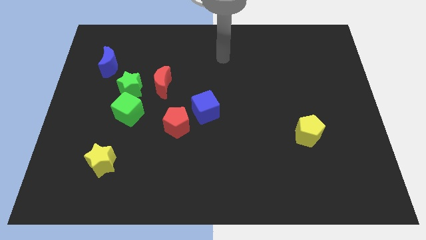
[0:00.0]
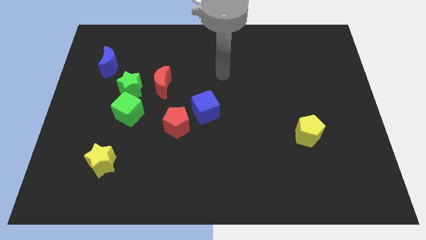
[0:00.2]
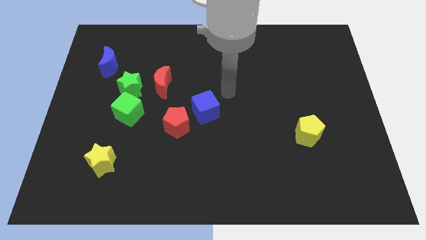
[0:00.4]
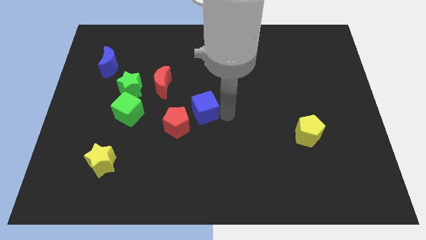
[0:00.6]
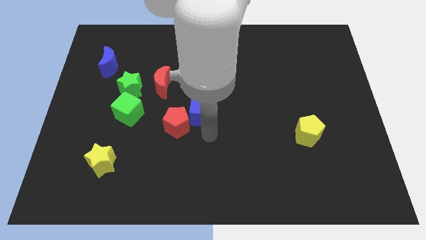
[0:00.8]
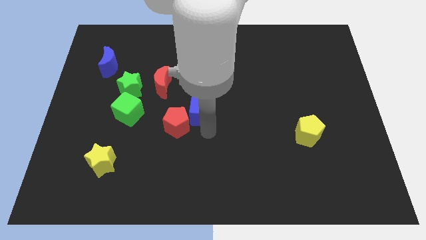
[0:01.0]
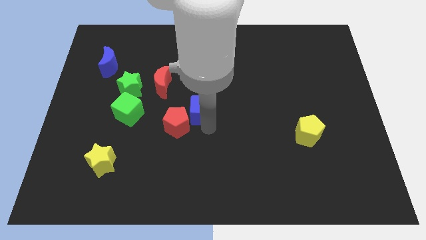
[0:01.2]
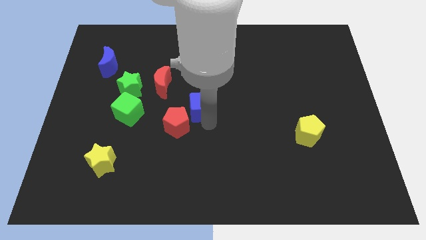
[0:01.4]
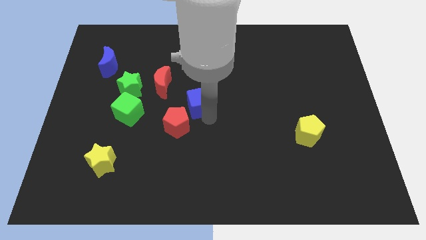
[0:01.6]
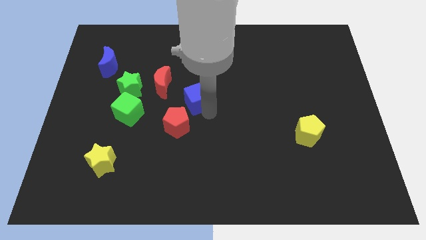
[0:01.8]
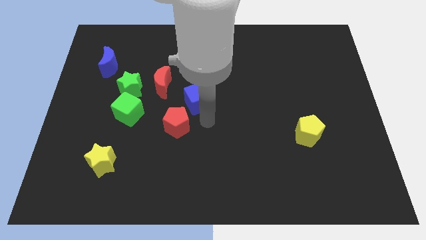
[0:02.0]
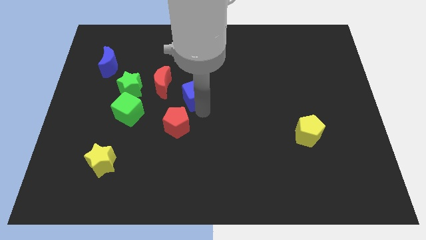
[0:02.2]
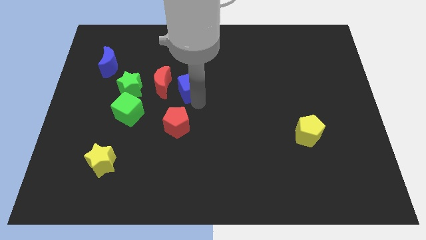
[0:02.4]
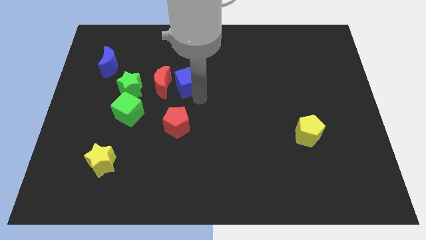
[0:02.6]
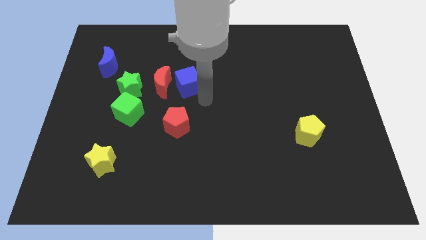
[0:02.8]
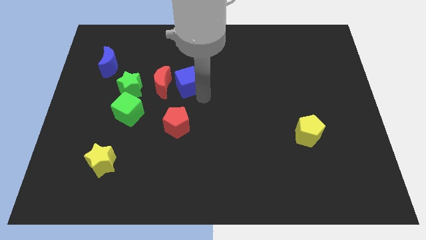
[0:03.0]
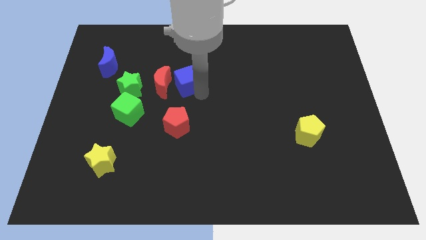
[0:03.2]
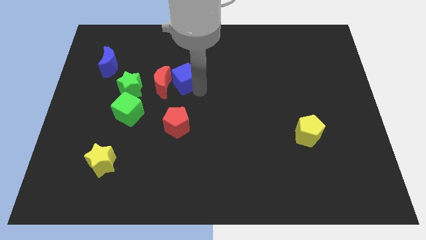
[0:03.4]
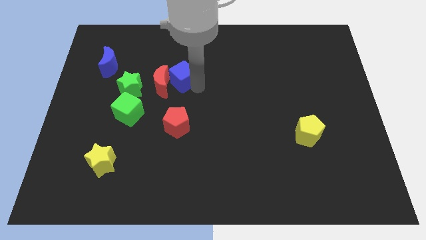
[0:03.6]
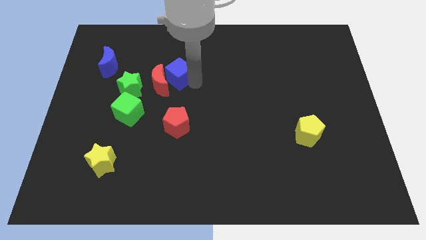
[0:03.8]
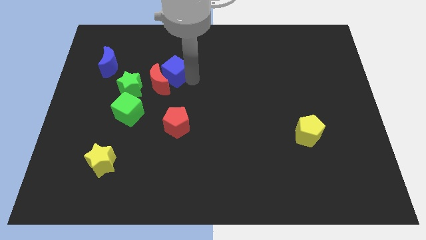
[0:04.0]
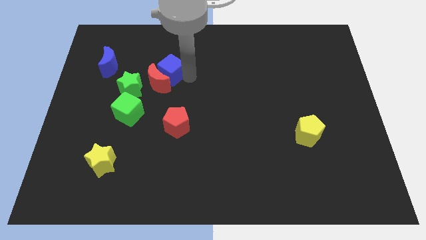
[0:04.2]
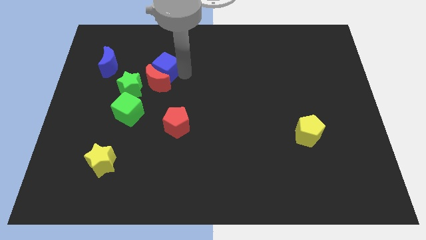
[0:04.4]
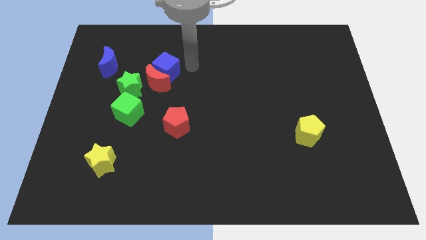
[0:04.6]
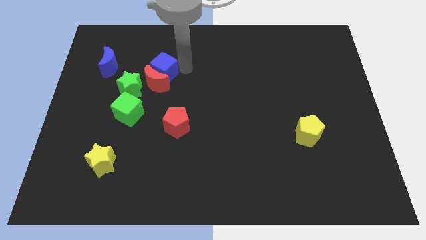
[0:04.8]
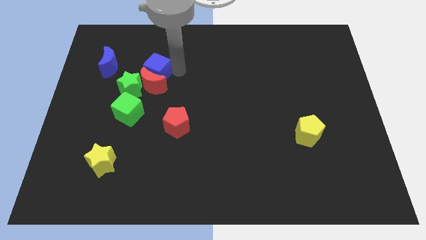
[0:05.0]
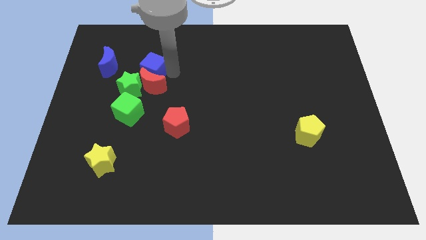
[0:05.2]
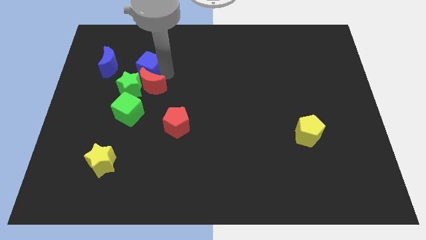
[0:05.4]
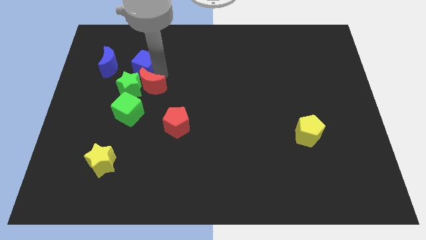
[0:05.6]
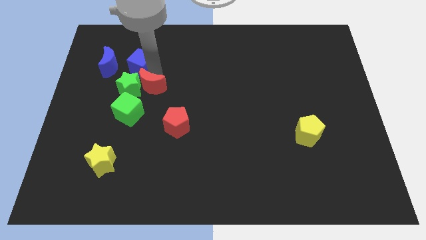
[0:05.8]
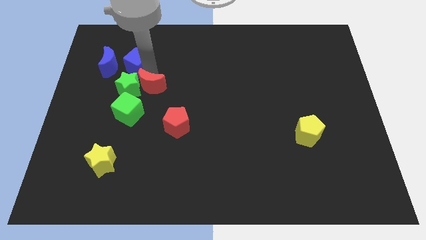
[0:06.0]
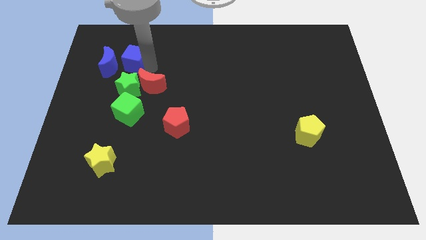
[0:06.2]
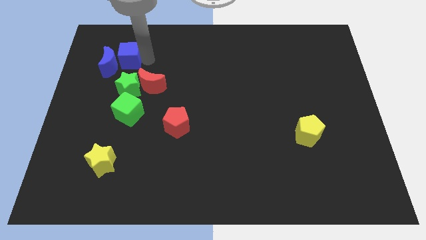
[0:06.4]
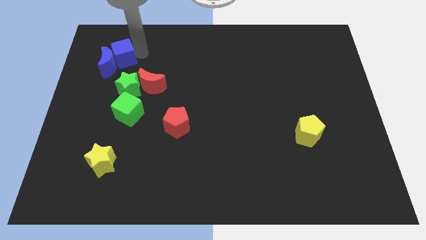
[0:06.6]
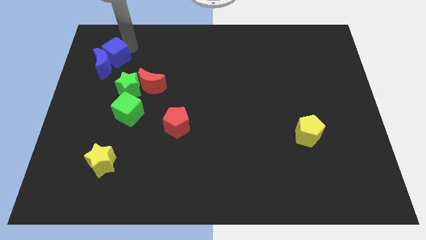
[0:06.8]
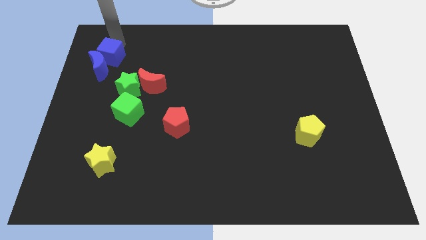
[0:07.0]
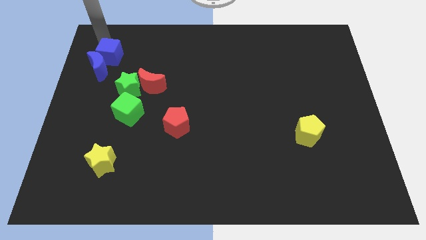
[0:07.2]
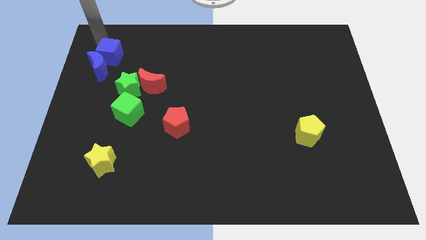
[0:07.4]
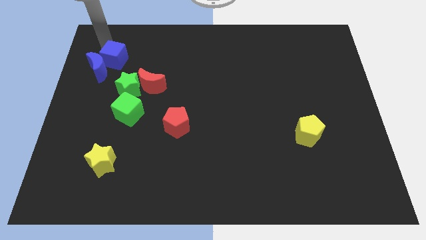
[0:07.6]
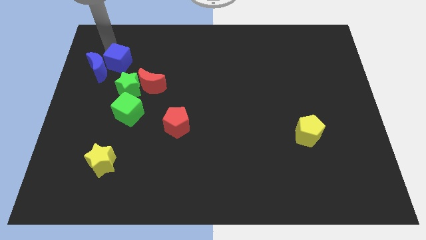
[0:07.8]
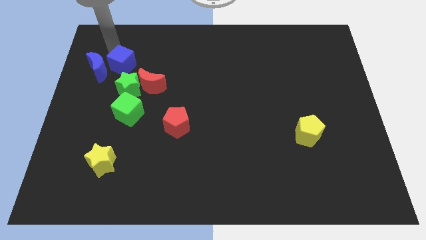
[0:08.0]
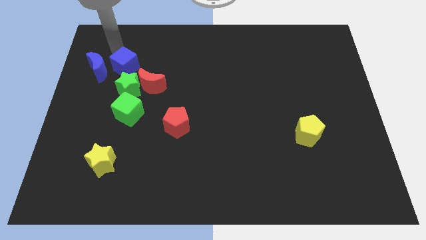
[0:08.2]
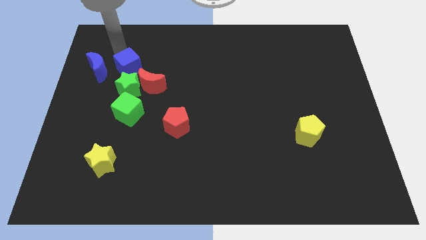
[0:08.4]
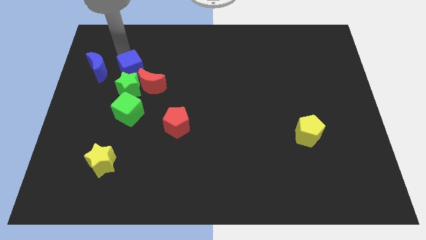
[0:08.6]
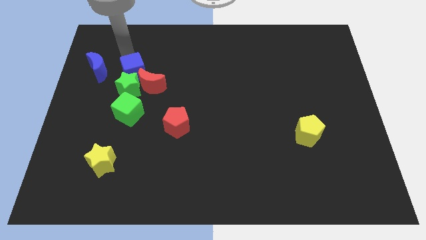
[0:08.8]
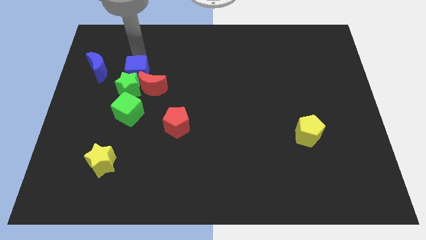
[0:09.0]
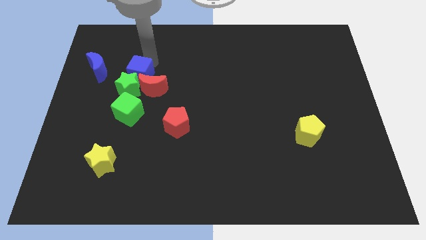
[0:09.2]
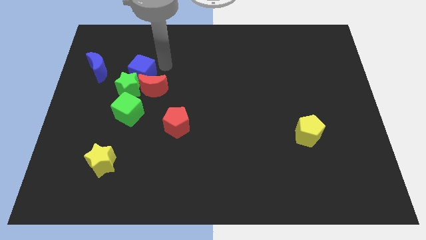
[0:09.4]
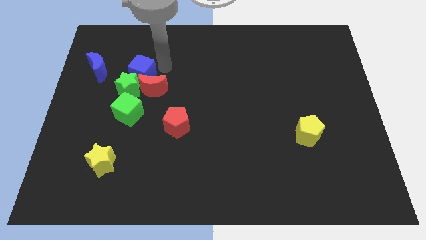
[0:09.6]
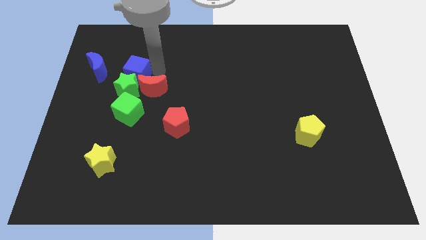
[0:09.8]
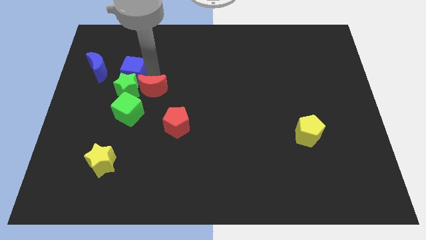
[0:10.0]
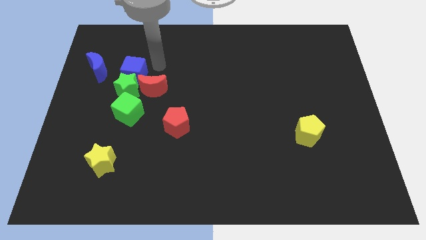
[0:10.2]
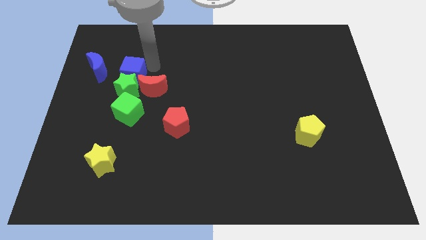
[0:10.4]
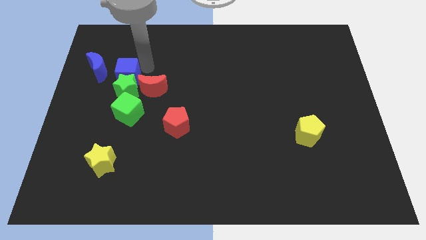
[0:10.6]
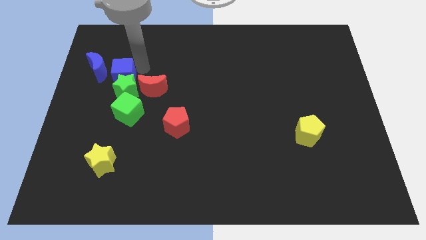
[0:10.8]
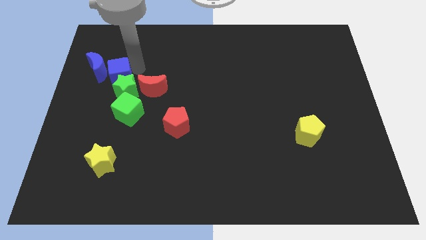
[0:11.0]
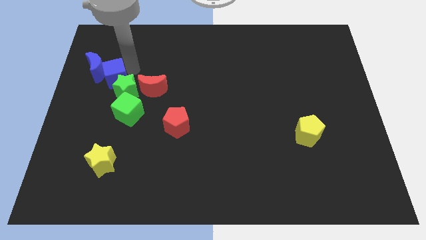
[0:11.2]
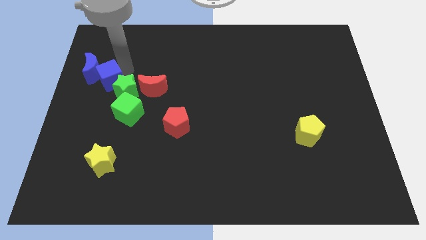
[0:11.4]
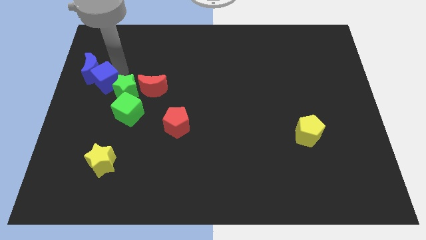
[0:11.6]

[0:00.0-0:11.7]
put the blue cube to the left side of the board
